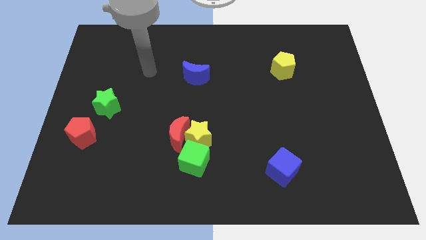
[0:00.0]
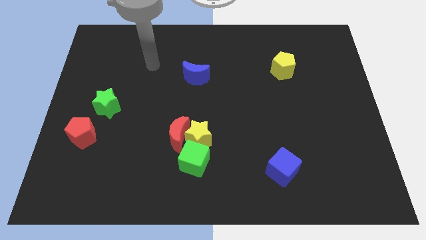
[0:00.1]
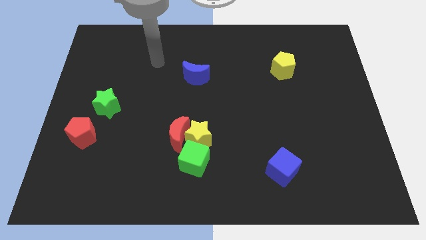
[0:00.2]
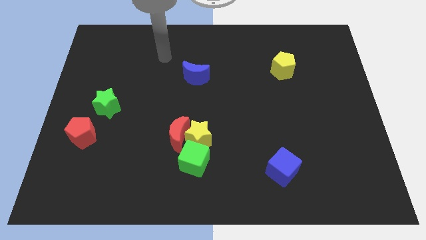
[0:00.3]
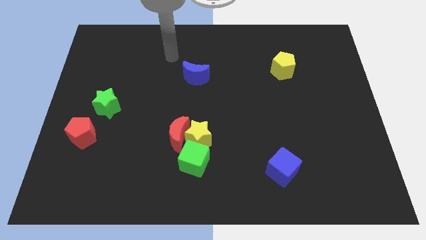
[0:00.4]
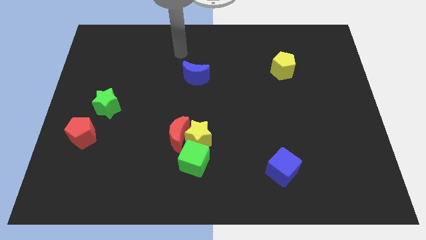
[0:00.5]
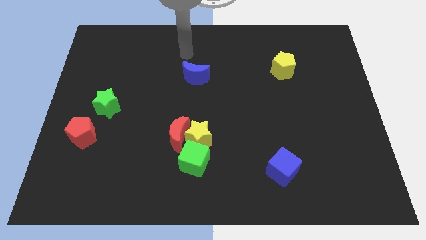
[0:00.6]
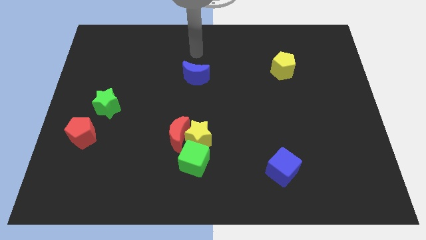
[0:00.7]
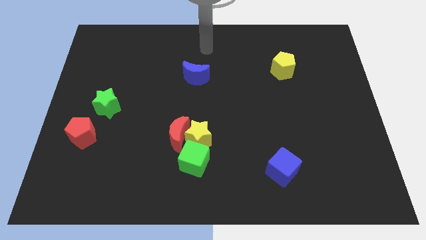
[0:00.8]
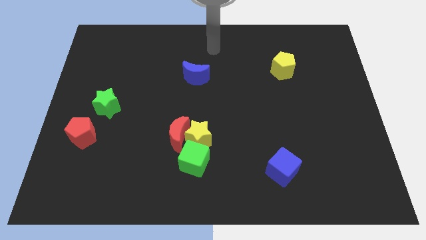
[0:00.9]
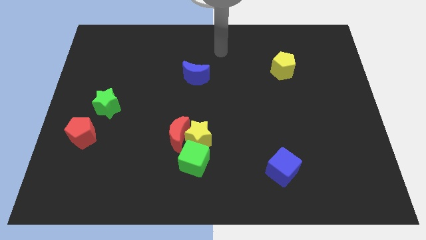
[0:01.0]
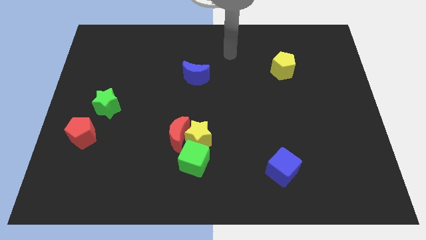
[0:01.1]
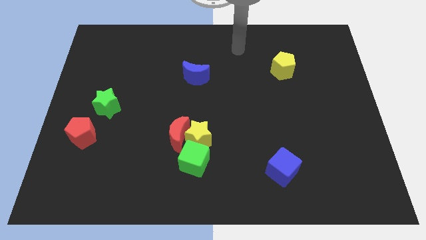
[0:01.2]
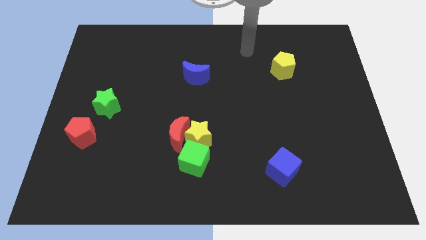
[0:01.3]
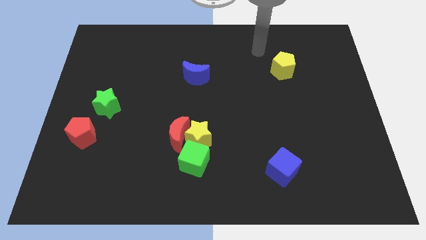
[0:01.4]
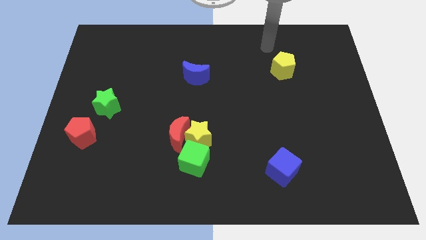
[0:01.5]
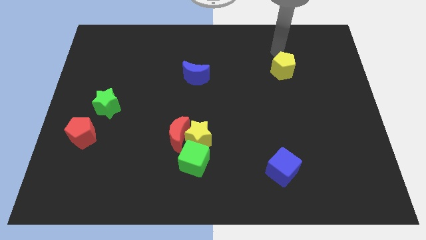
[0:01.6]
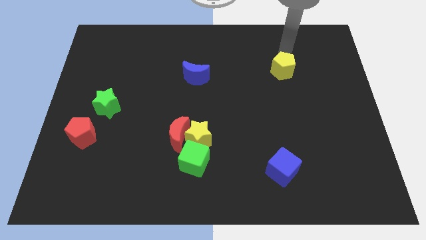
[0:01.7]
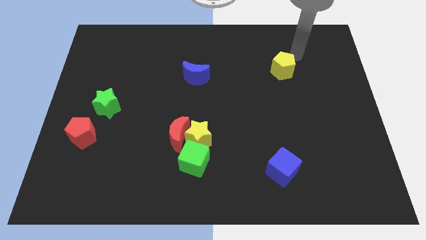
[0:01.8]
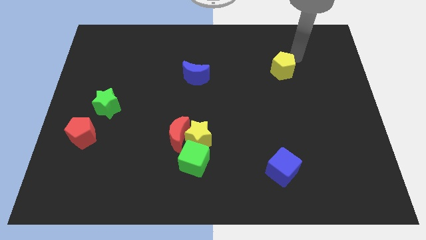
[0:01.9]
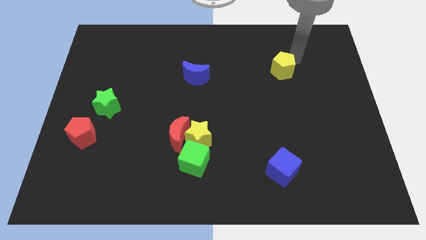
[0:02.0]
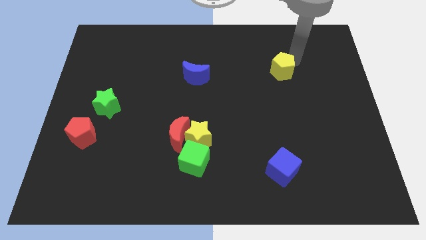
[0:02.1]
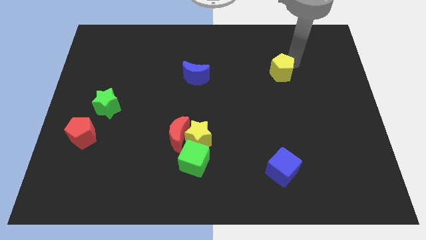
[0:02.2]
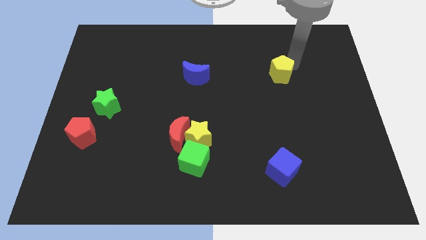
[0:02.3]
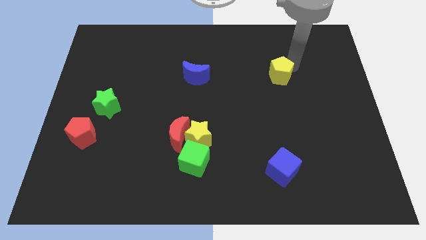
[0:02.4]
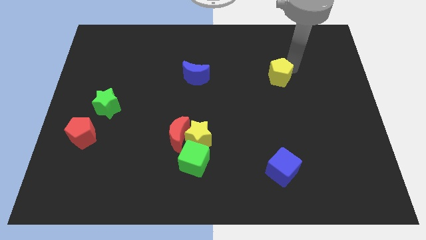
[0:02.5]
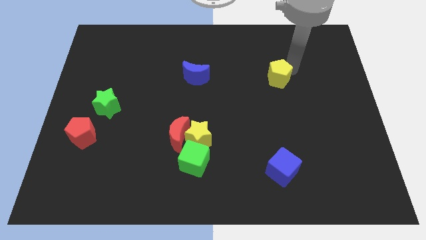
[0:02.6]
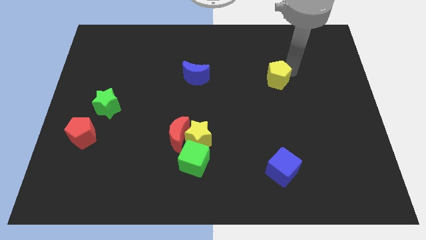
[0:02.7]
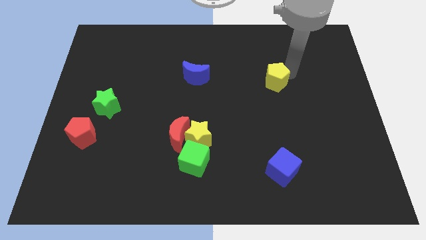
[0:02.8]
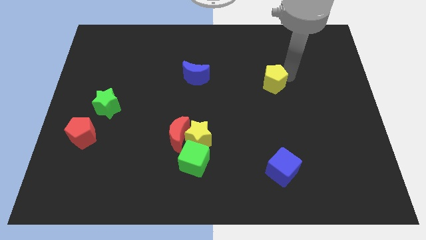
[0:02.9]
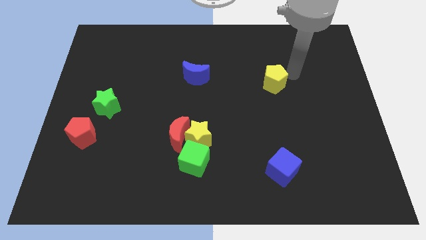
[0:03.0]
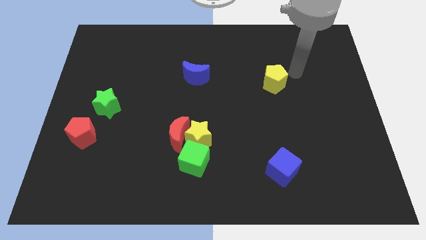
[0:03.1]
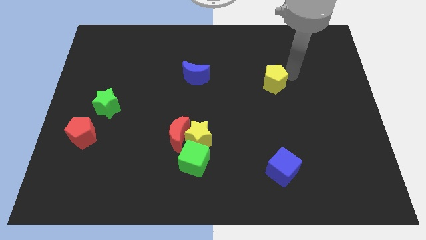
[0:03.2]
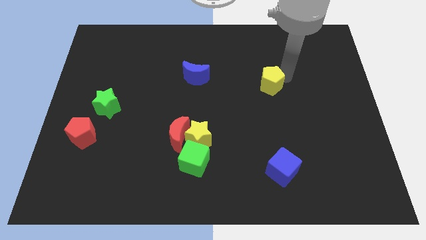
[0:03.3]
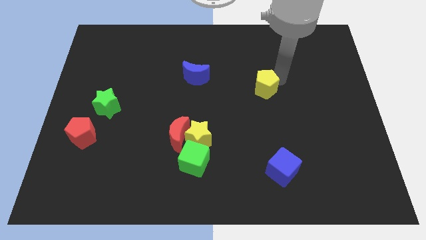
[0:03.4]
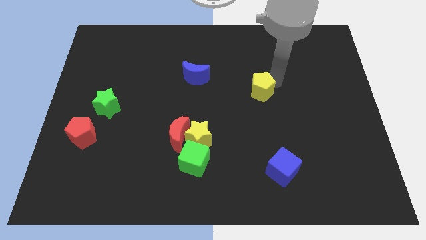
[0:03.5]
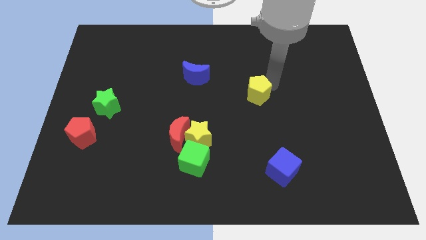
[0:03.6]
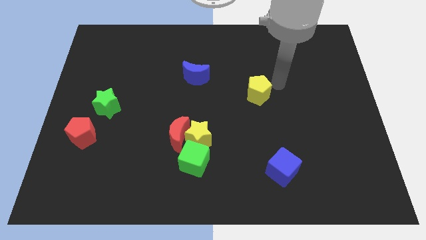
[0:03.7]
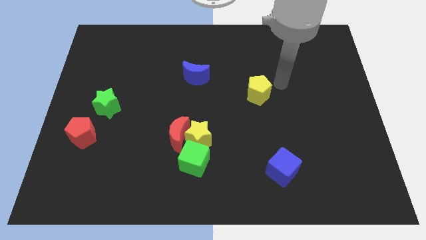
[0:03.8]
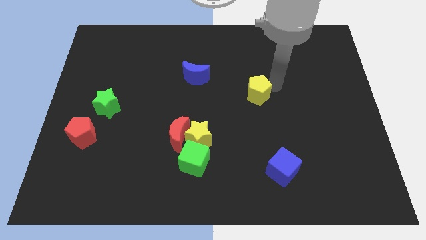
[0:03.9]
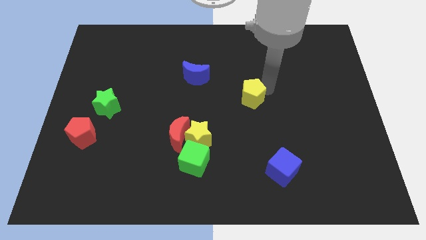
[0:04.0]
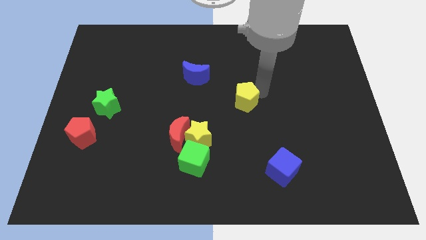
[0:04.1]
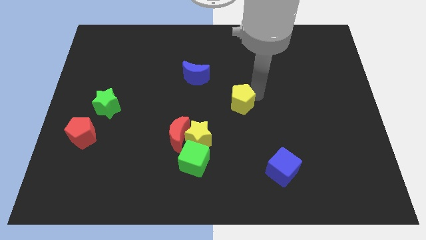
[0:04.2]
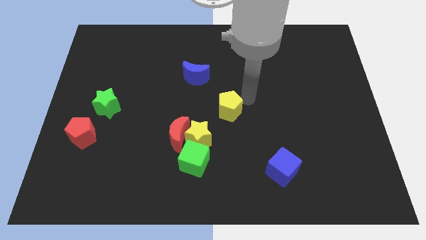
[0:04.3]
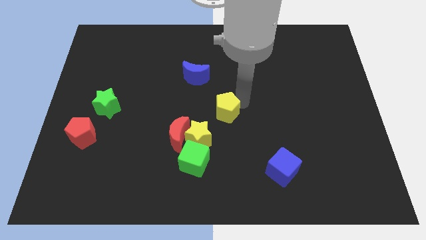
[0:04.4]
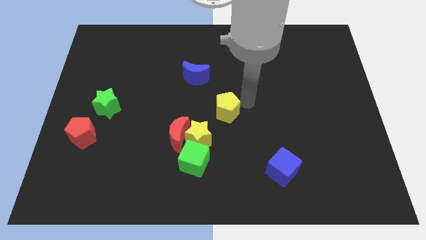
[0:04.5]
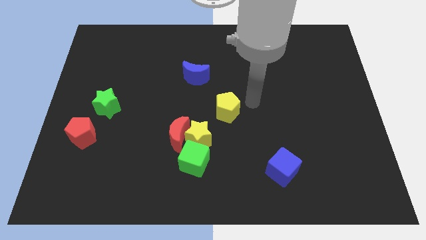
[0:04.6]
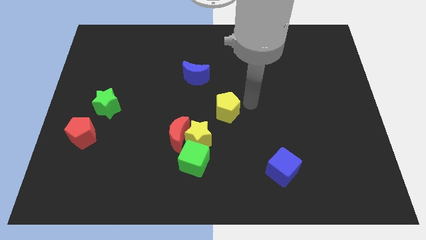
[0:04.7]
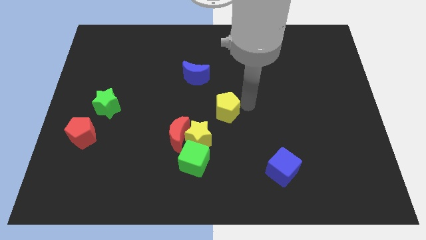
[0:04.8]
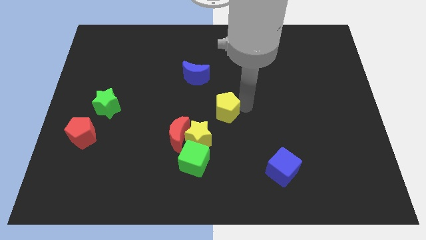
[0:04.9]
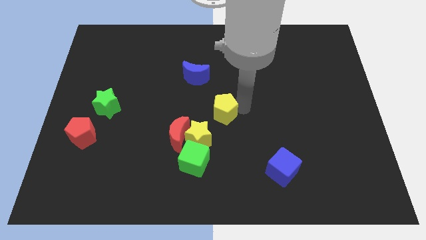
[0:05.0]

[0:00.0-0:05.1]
slide the yellow pentagon to the top right side of the red moon

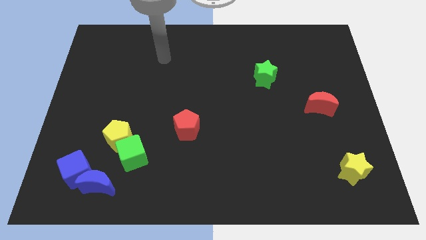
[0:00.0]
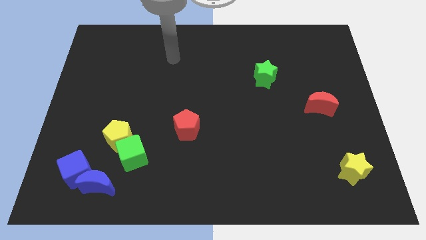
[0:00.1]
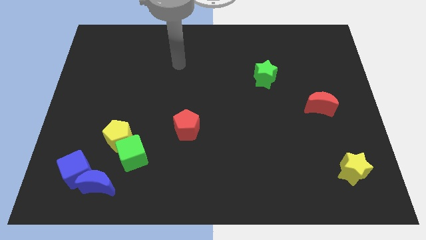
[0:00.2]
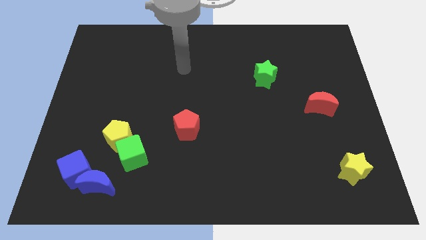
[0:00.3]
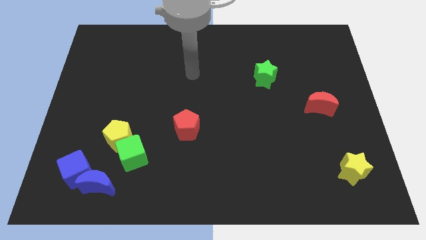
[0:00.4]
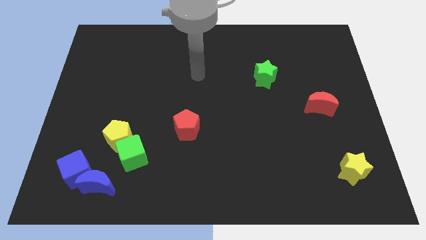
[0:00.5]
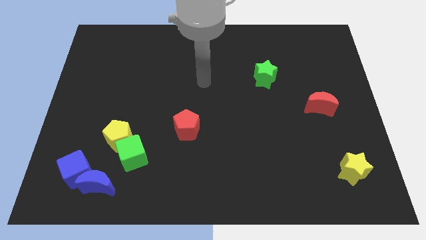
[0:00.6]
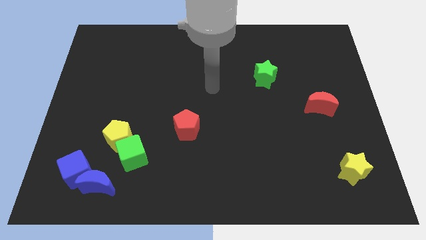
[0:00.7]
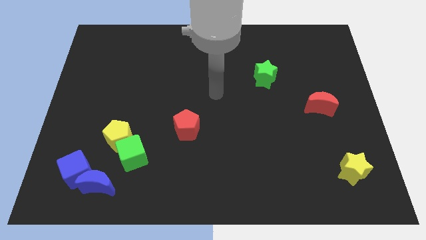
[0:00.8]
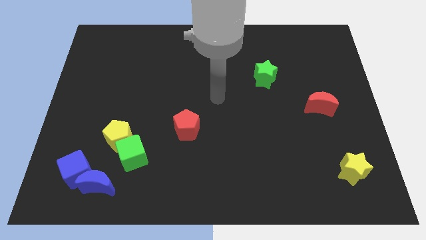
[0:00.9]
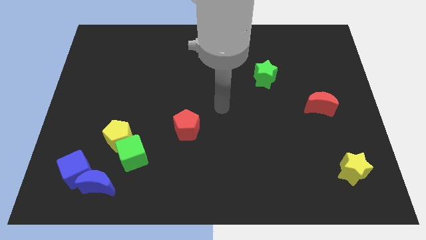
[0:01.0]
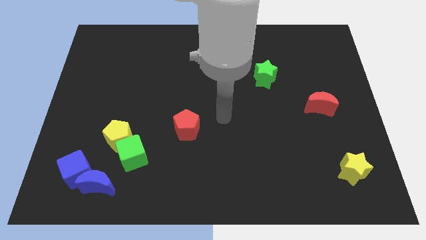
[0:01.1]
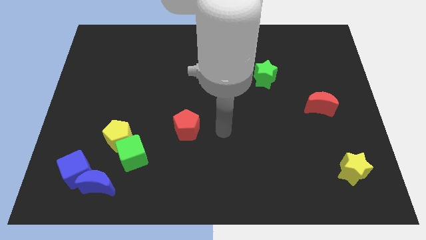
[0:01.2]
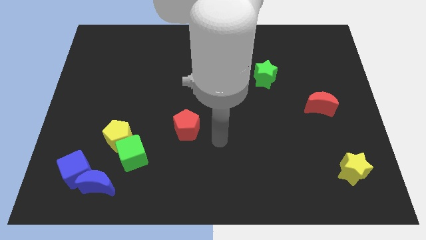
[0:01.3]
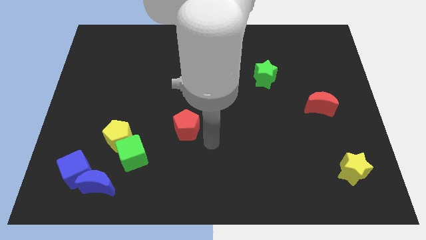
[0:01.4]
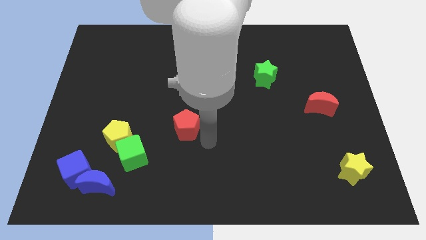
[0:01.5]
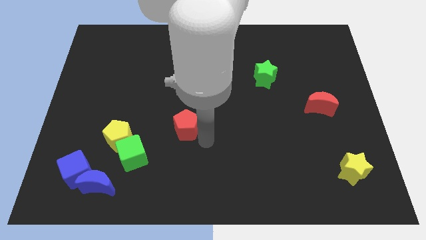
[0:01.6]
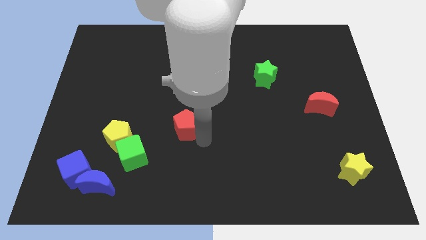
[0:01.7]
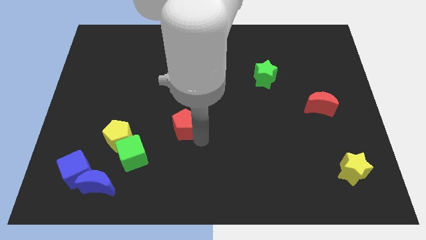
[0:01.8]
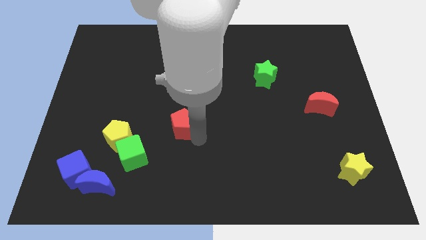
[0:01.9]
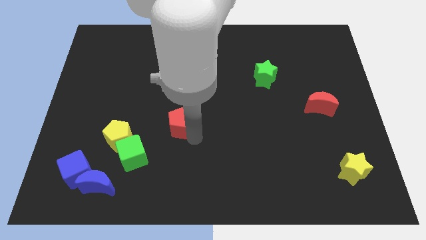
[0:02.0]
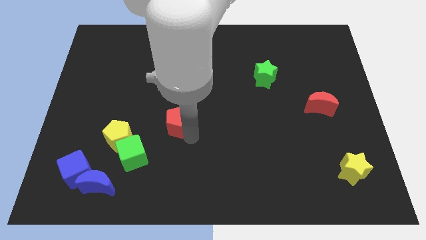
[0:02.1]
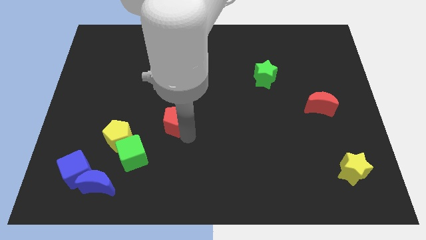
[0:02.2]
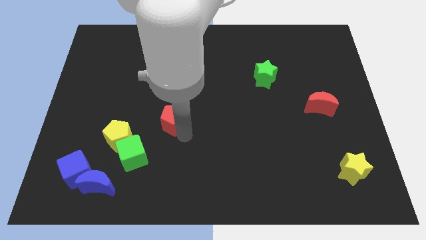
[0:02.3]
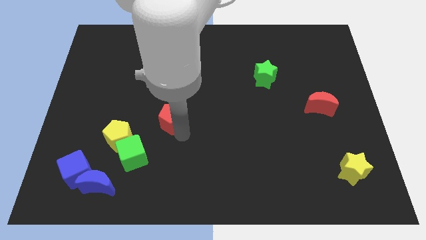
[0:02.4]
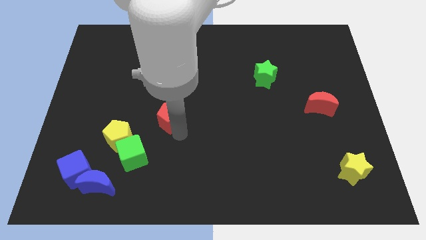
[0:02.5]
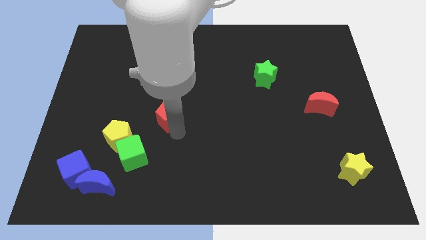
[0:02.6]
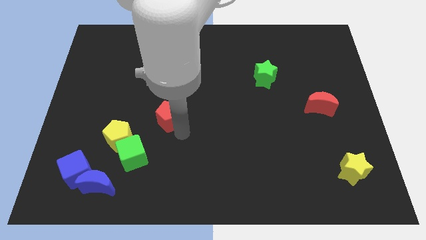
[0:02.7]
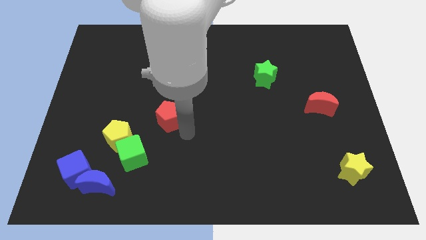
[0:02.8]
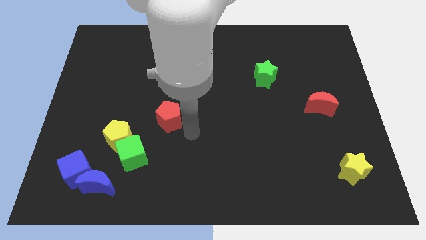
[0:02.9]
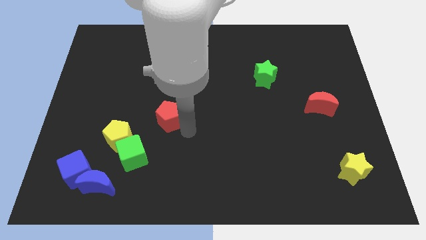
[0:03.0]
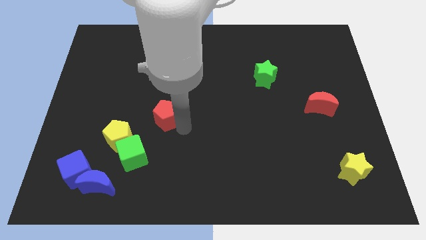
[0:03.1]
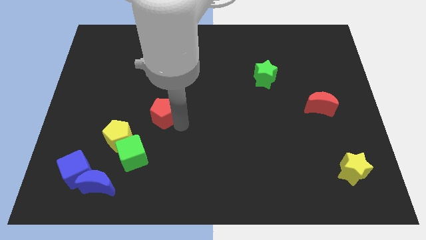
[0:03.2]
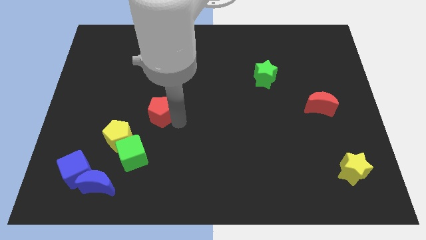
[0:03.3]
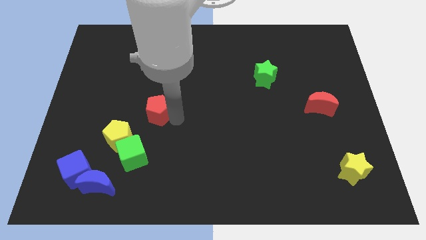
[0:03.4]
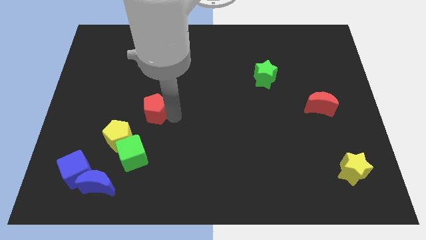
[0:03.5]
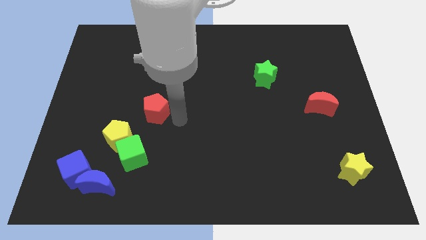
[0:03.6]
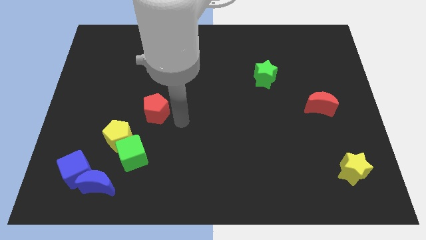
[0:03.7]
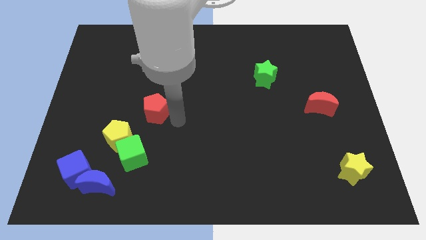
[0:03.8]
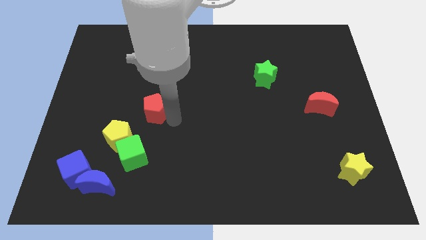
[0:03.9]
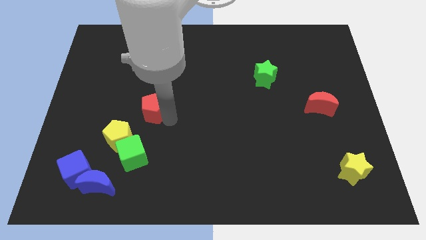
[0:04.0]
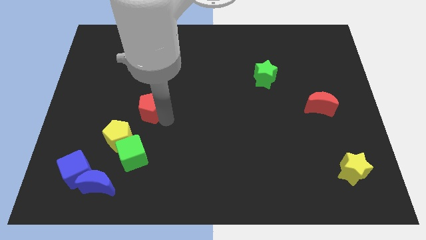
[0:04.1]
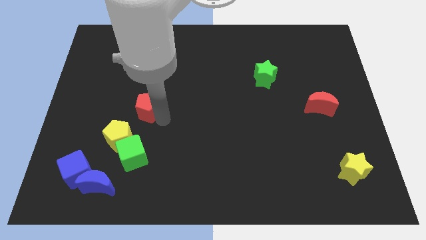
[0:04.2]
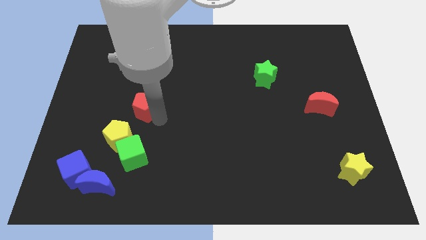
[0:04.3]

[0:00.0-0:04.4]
slide the red pentagon to the top side of the yellow pentagon
